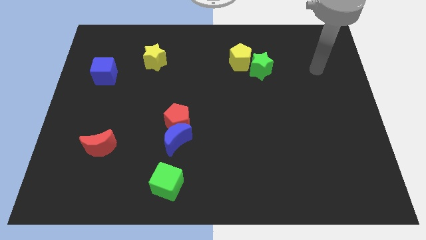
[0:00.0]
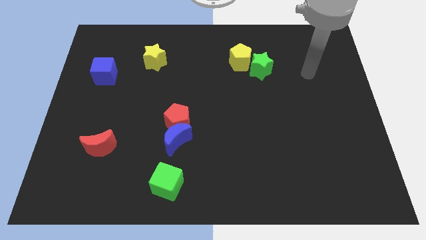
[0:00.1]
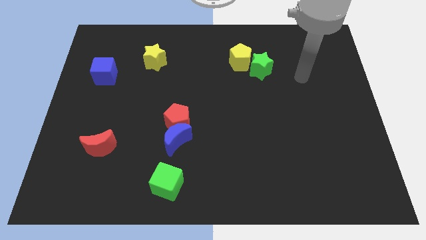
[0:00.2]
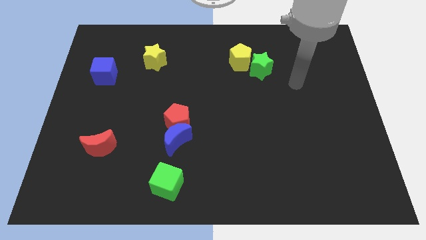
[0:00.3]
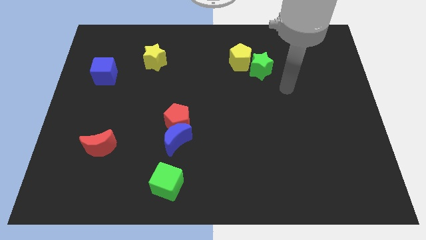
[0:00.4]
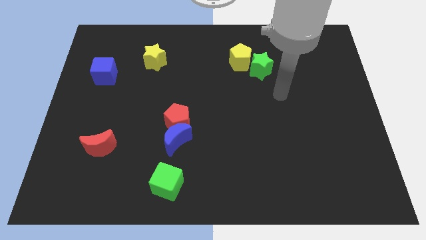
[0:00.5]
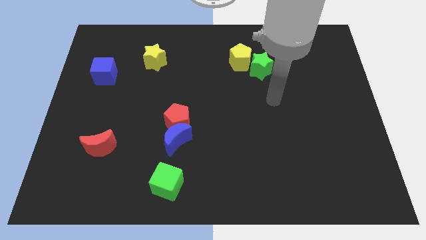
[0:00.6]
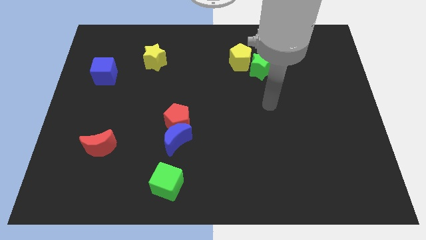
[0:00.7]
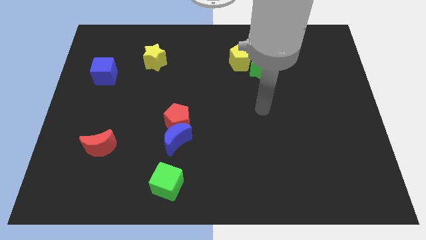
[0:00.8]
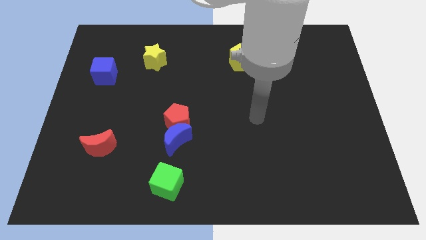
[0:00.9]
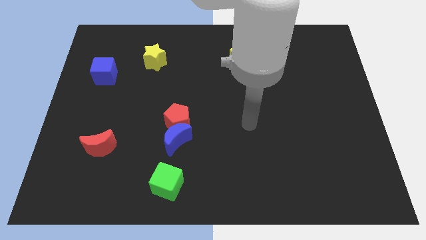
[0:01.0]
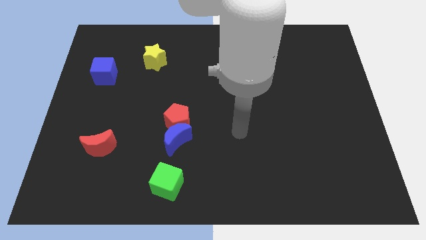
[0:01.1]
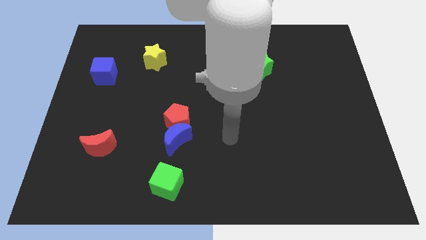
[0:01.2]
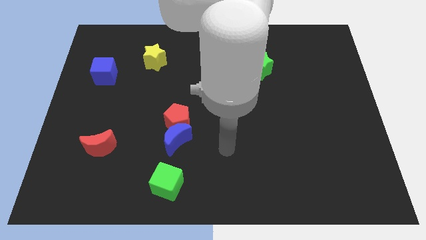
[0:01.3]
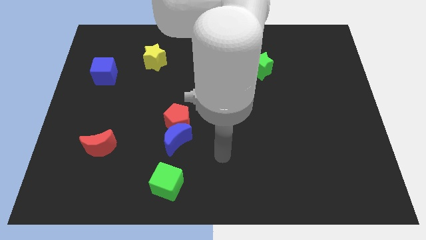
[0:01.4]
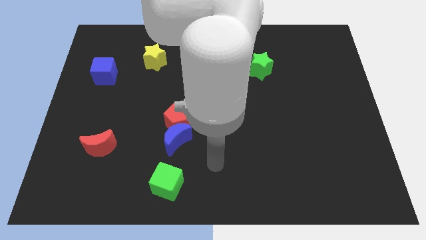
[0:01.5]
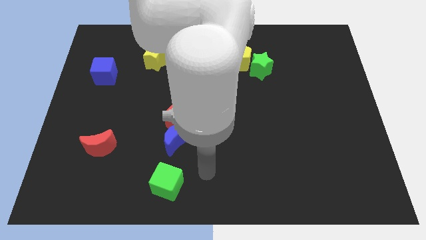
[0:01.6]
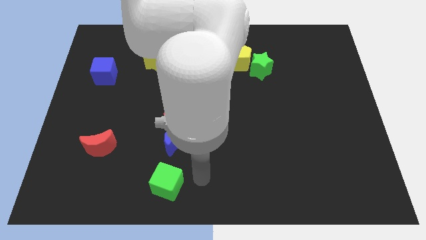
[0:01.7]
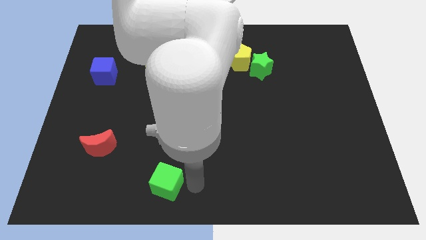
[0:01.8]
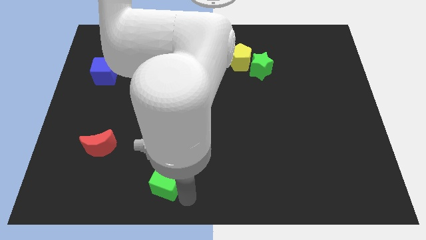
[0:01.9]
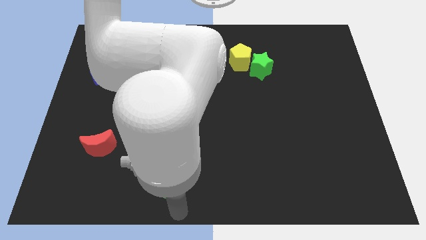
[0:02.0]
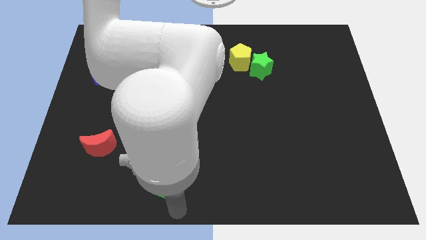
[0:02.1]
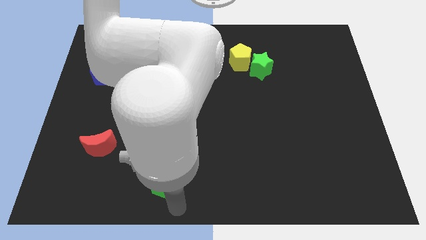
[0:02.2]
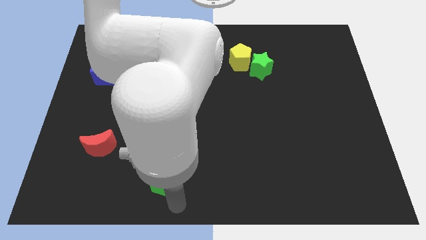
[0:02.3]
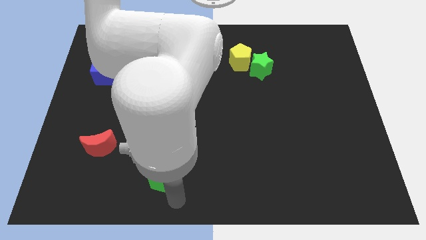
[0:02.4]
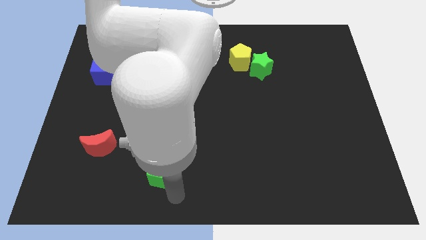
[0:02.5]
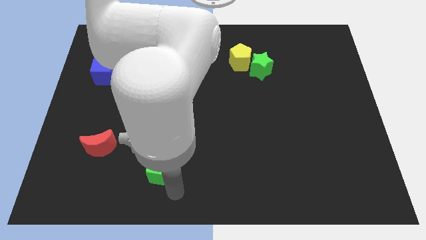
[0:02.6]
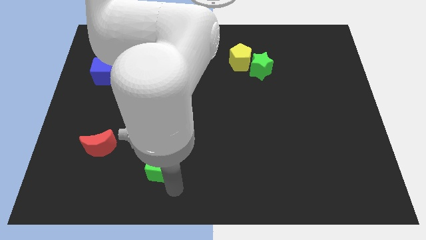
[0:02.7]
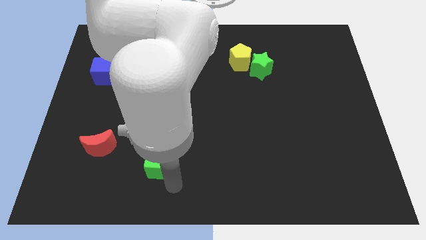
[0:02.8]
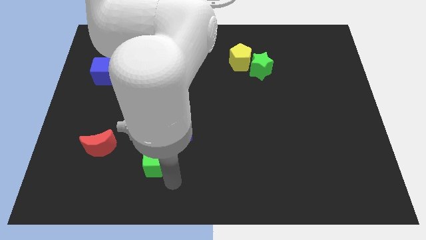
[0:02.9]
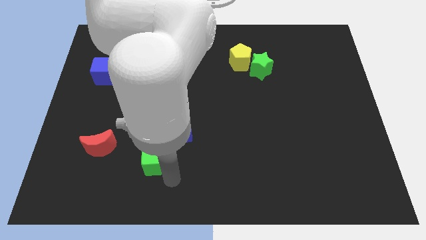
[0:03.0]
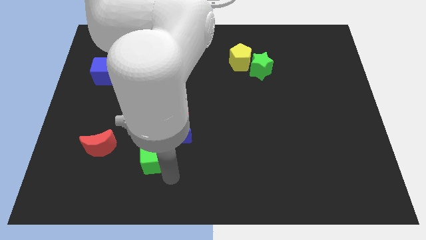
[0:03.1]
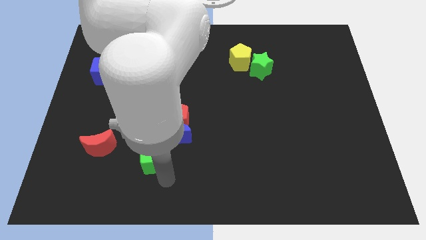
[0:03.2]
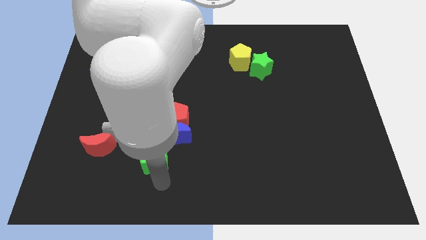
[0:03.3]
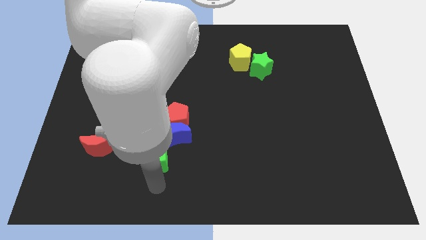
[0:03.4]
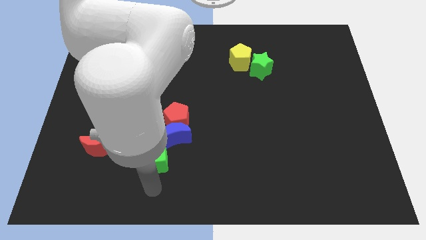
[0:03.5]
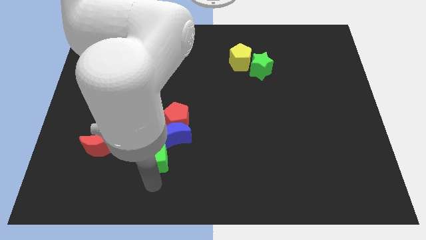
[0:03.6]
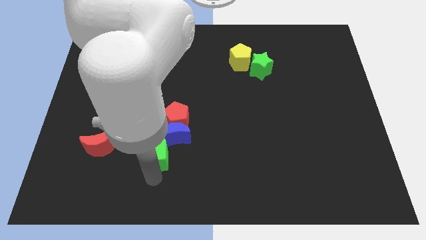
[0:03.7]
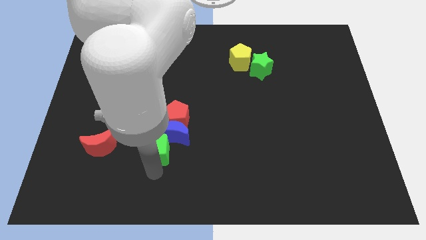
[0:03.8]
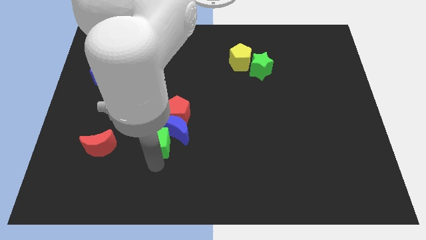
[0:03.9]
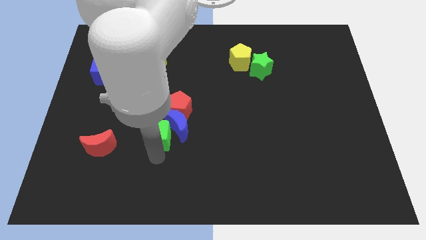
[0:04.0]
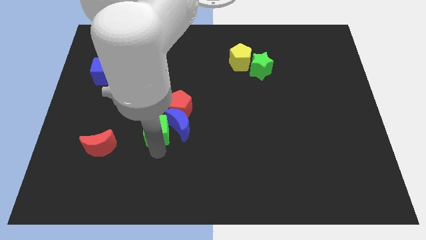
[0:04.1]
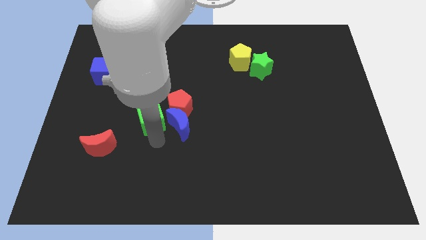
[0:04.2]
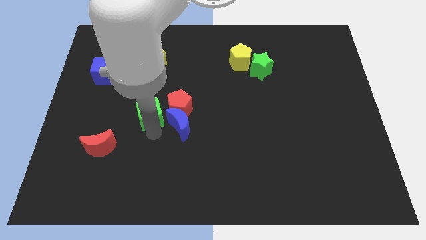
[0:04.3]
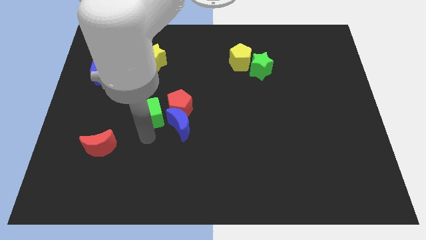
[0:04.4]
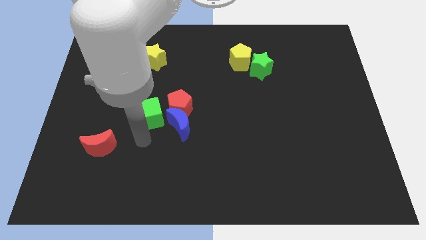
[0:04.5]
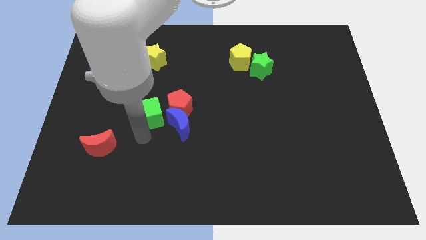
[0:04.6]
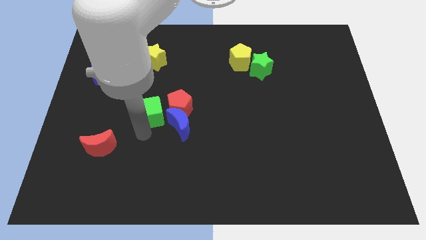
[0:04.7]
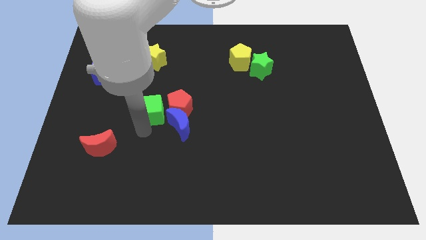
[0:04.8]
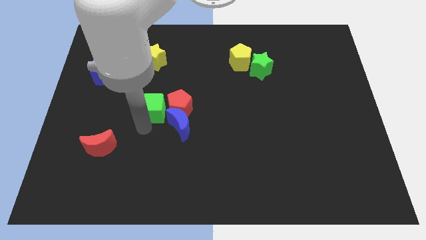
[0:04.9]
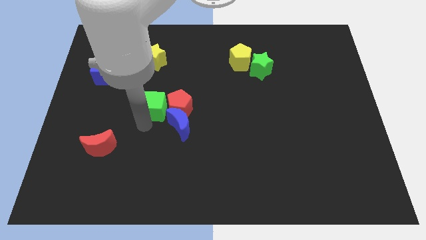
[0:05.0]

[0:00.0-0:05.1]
push the green cube diagonally up and to the left of the red pentagon

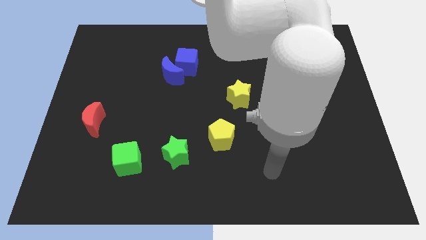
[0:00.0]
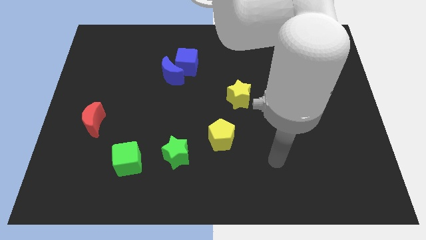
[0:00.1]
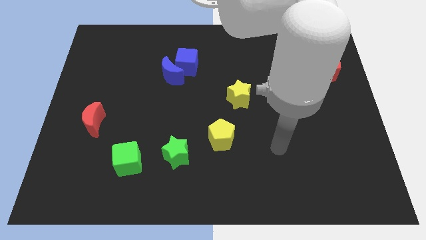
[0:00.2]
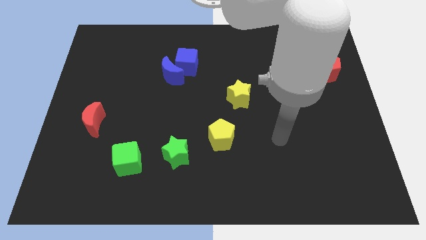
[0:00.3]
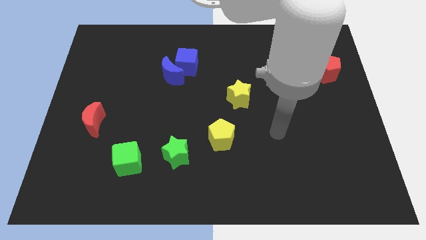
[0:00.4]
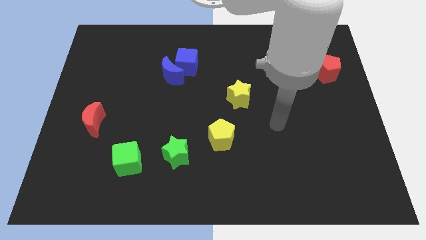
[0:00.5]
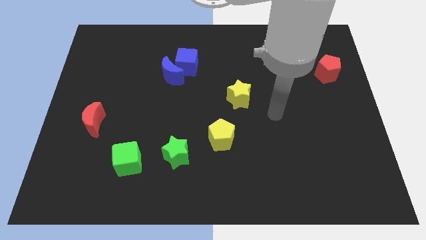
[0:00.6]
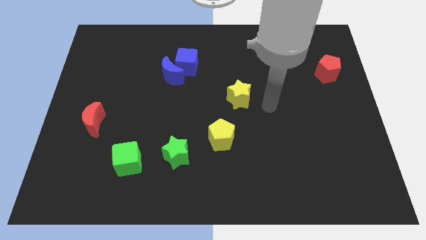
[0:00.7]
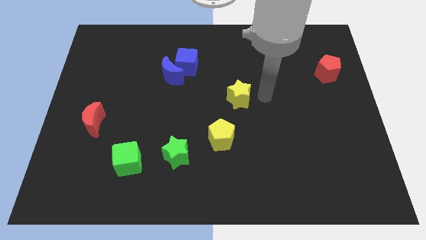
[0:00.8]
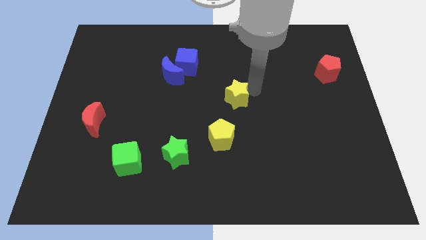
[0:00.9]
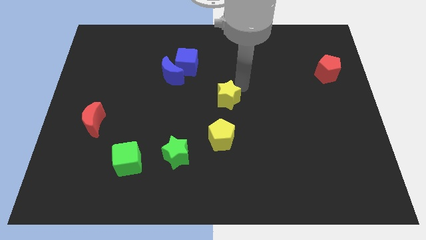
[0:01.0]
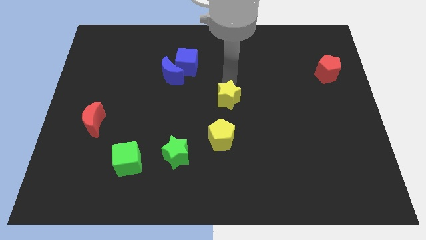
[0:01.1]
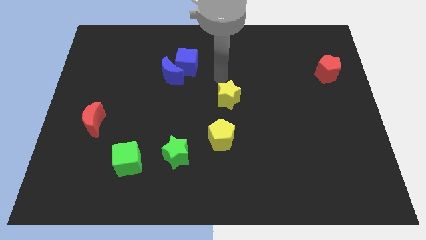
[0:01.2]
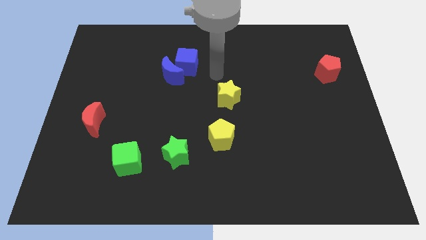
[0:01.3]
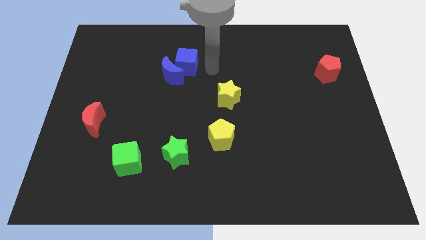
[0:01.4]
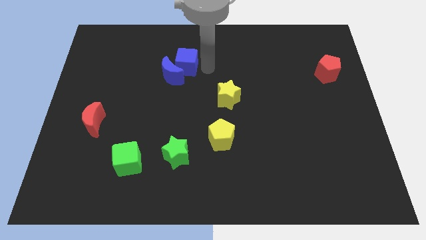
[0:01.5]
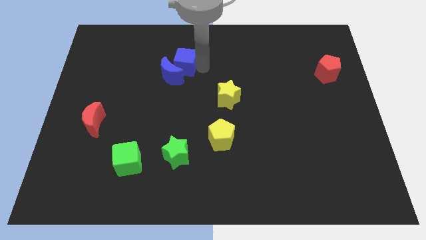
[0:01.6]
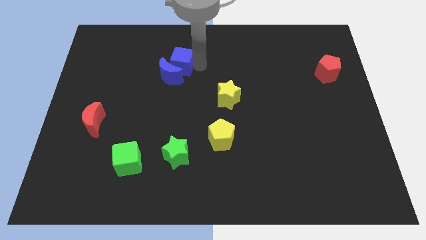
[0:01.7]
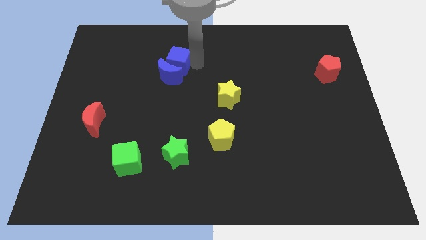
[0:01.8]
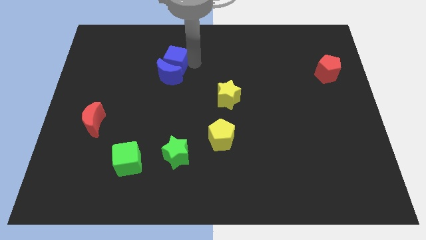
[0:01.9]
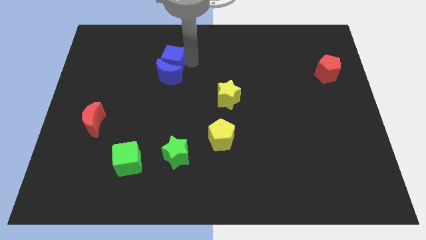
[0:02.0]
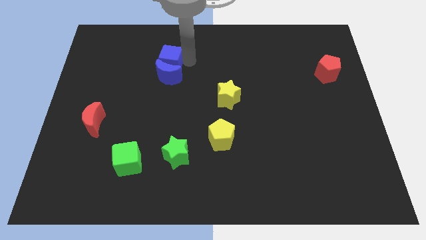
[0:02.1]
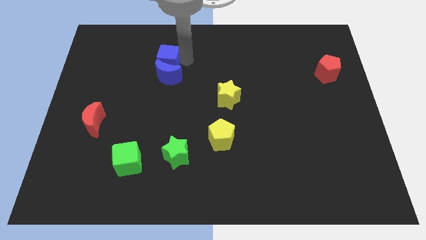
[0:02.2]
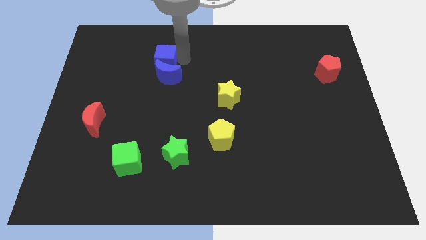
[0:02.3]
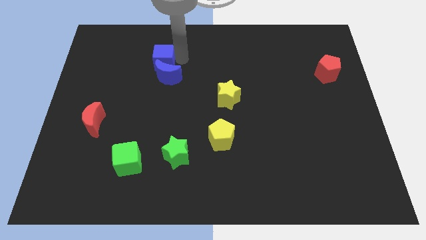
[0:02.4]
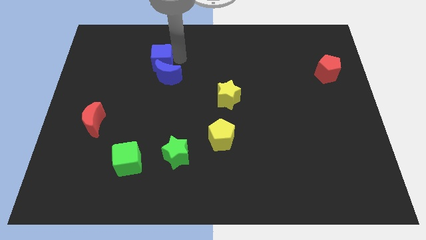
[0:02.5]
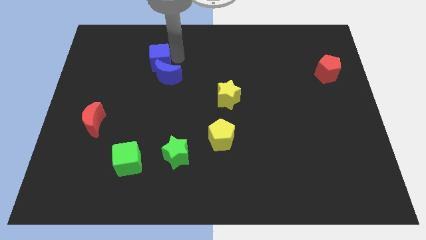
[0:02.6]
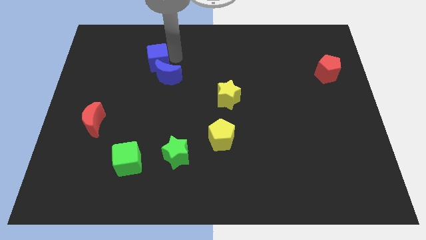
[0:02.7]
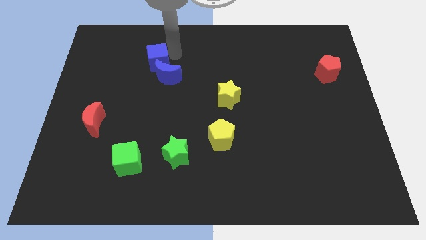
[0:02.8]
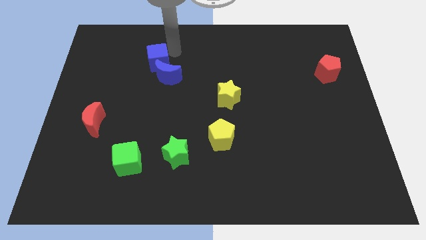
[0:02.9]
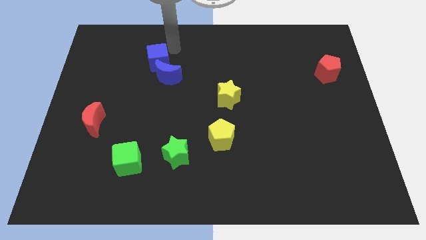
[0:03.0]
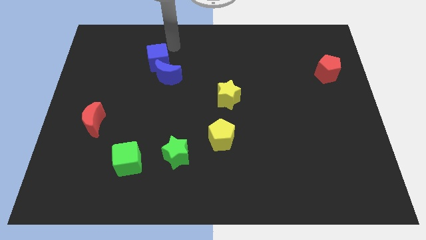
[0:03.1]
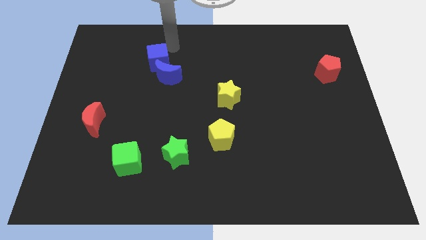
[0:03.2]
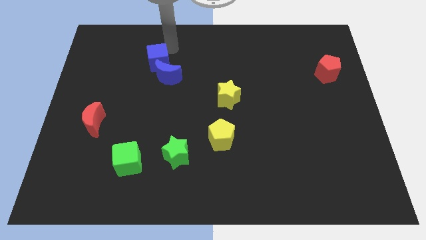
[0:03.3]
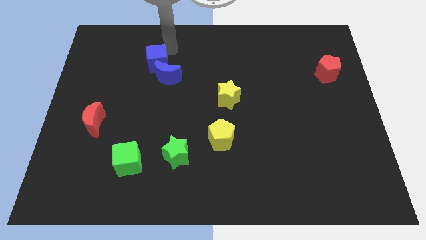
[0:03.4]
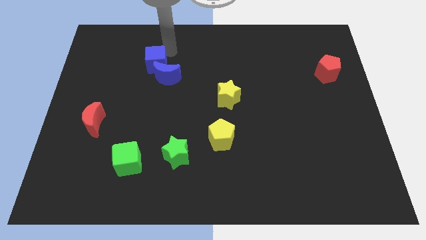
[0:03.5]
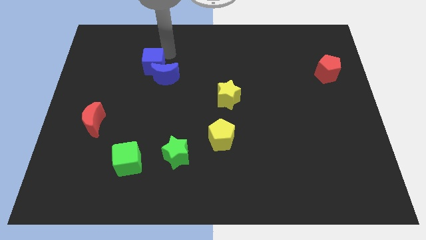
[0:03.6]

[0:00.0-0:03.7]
push the blue cube to the left side of the blue moon
